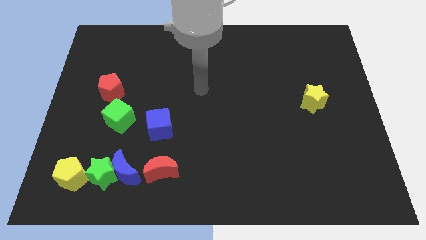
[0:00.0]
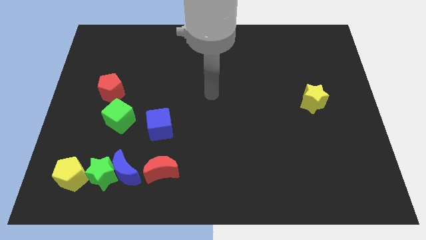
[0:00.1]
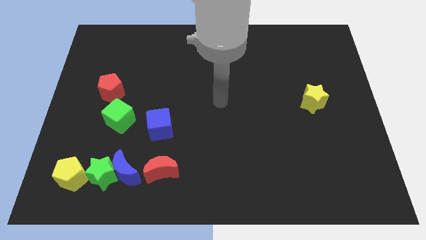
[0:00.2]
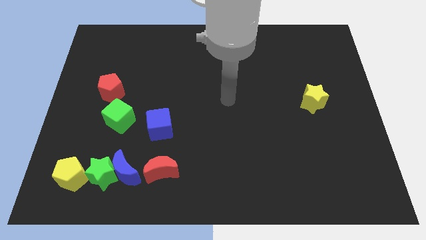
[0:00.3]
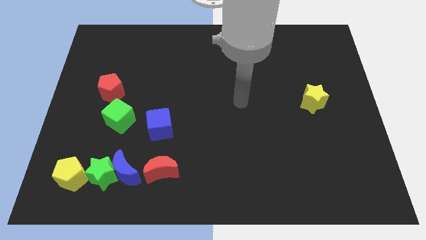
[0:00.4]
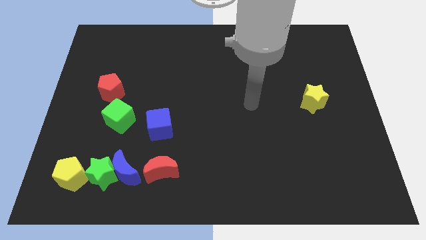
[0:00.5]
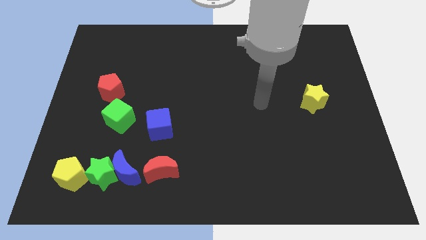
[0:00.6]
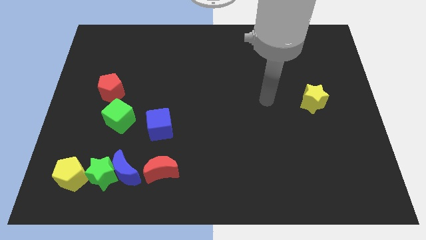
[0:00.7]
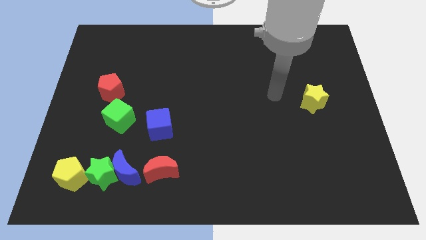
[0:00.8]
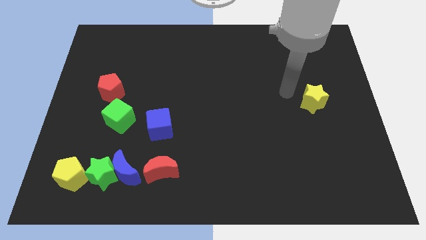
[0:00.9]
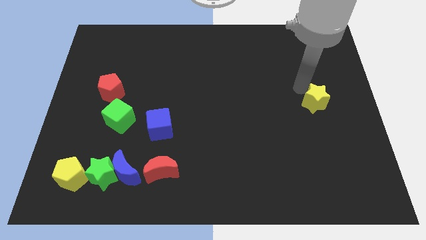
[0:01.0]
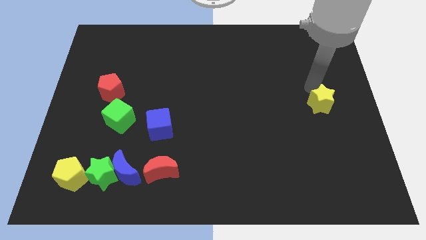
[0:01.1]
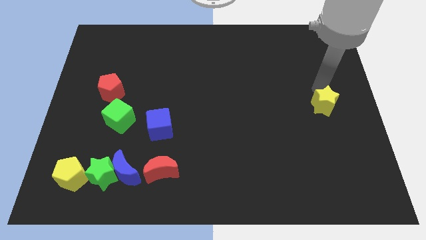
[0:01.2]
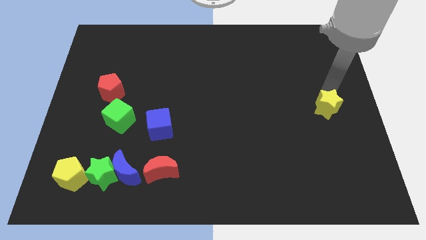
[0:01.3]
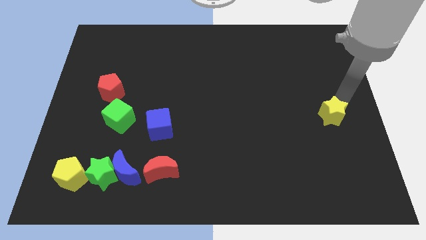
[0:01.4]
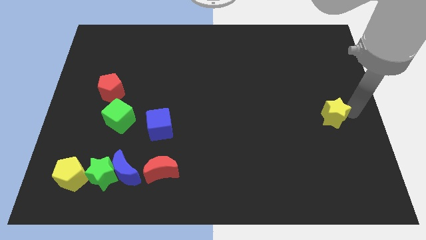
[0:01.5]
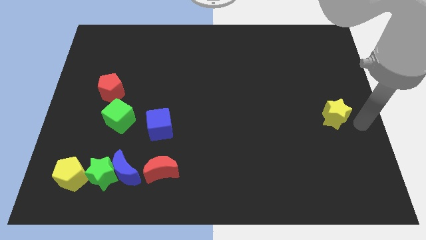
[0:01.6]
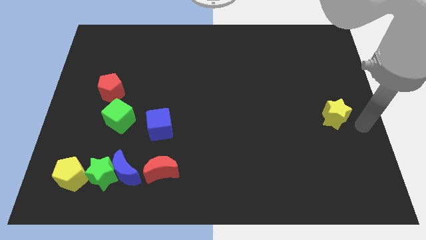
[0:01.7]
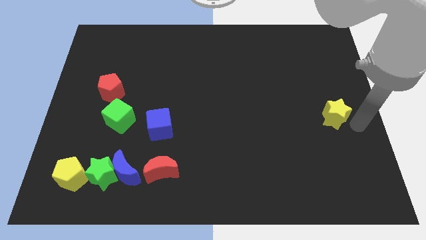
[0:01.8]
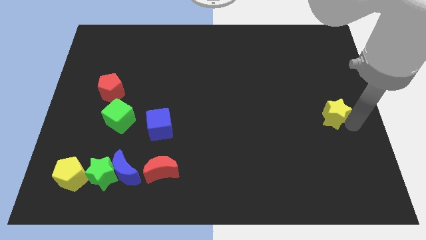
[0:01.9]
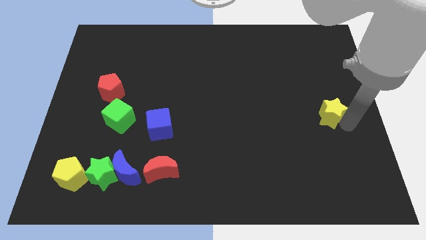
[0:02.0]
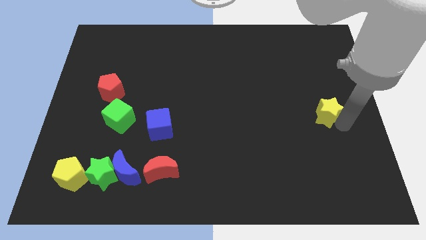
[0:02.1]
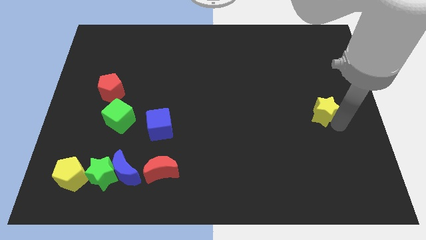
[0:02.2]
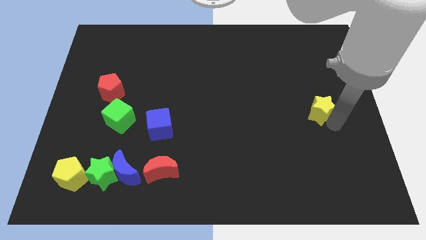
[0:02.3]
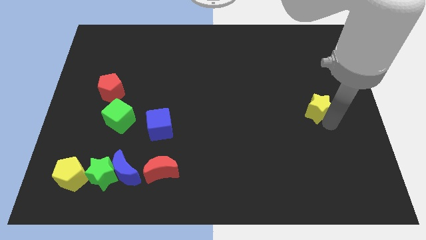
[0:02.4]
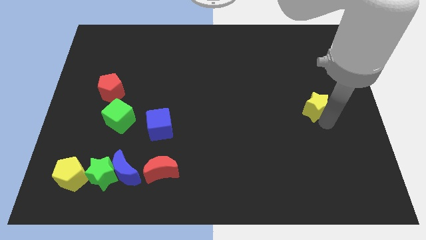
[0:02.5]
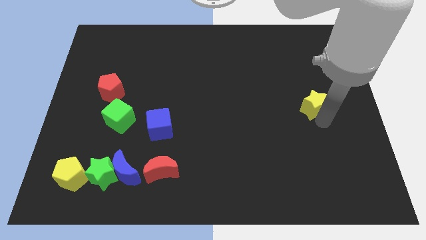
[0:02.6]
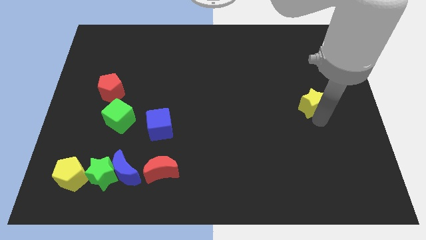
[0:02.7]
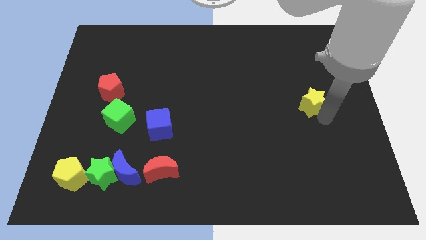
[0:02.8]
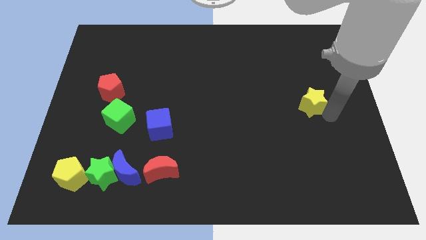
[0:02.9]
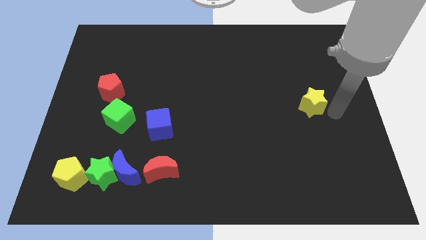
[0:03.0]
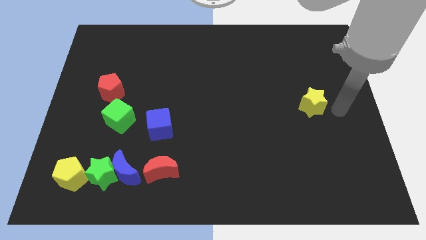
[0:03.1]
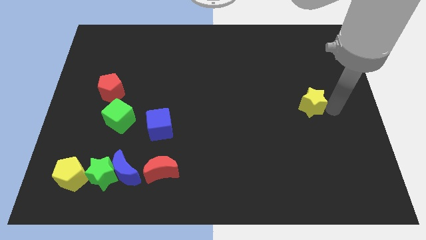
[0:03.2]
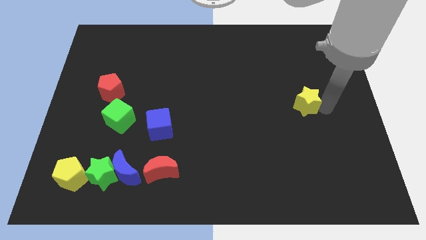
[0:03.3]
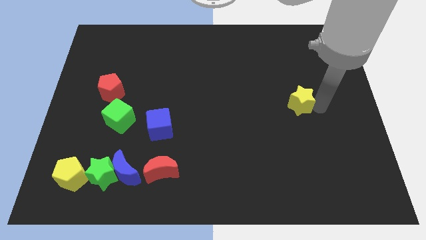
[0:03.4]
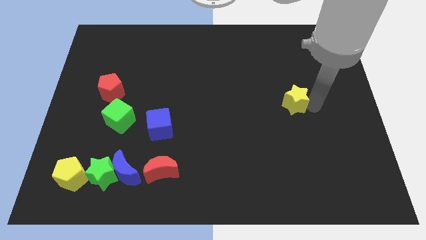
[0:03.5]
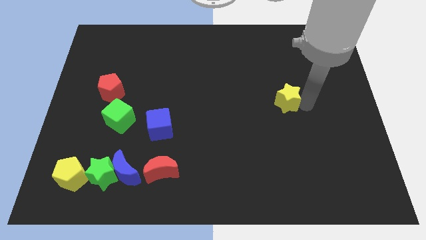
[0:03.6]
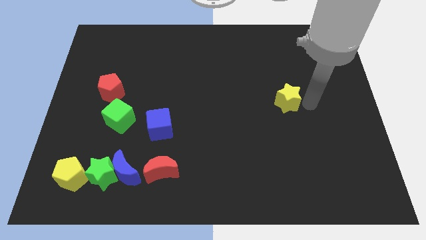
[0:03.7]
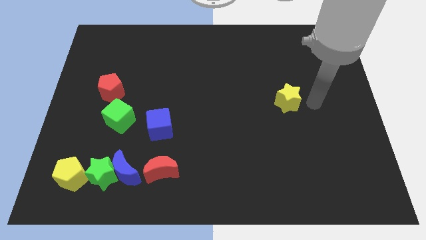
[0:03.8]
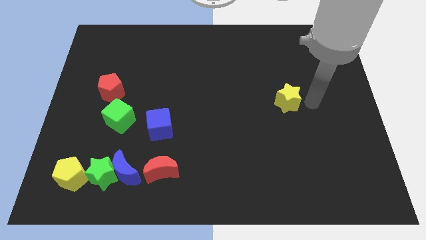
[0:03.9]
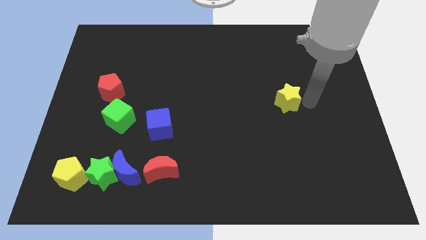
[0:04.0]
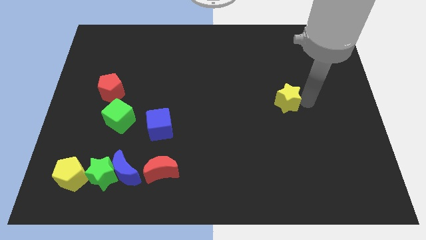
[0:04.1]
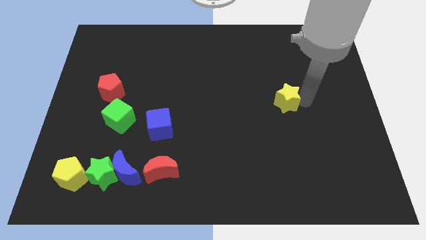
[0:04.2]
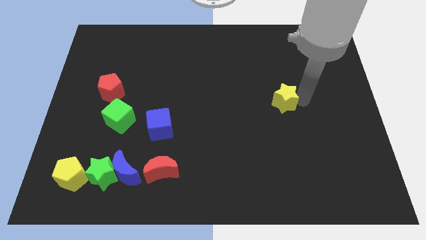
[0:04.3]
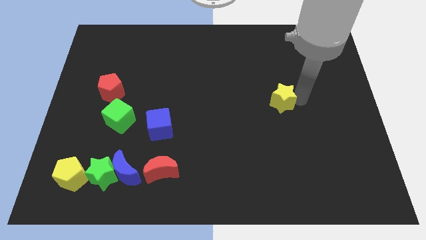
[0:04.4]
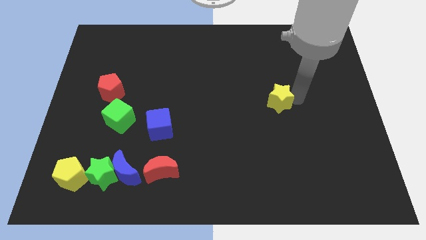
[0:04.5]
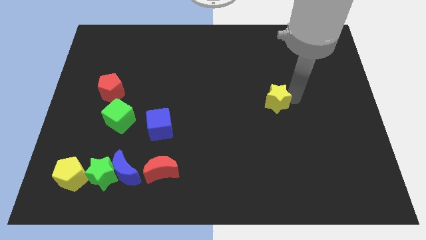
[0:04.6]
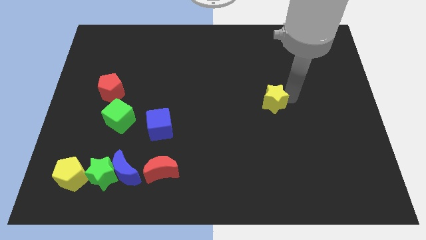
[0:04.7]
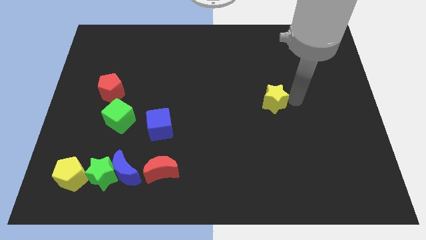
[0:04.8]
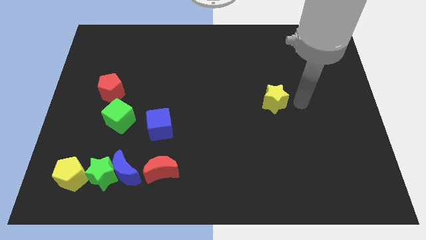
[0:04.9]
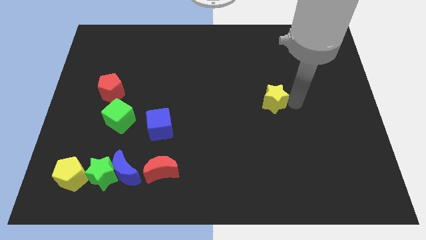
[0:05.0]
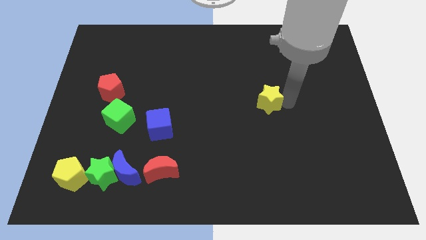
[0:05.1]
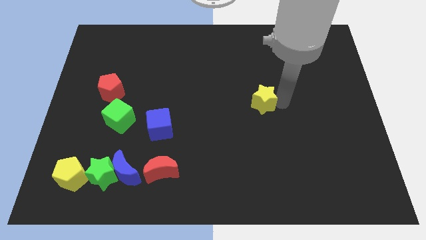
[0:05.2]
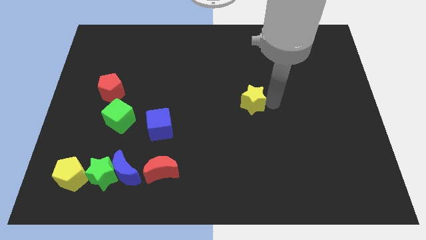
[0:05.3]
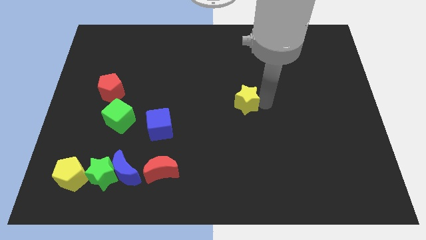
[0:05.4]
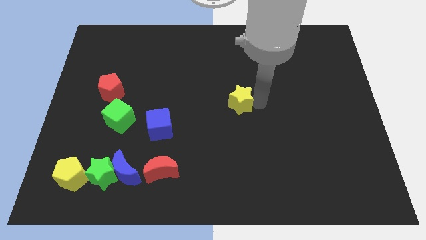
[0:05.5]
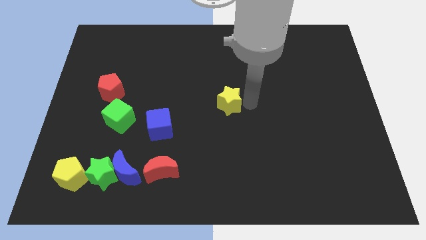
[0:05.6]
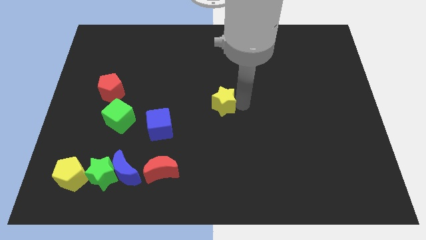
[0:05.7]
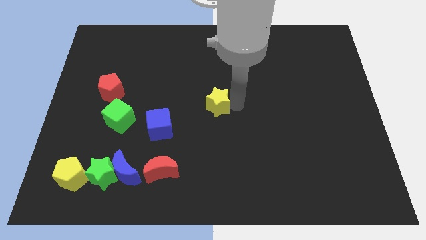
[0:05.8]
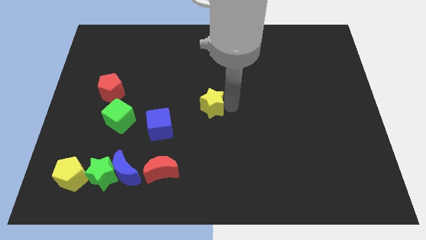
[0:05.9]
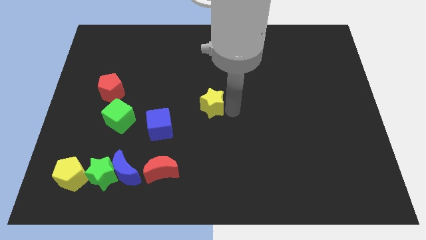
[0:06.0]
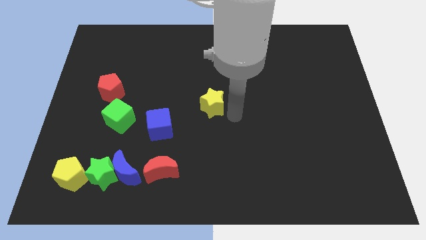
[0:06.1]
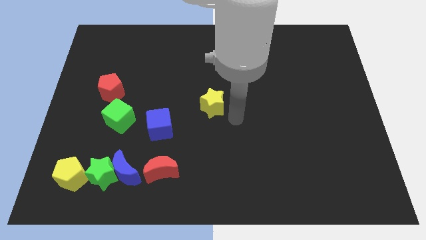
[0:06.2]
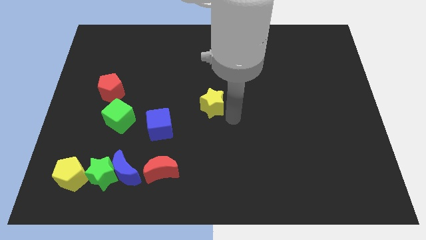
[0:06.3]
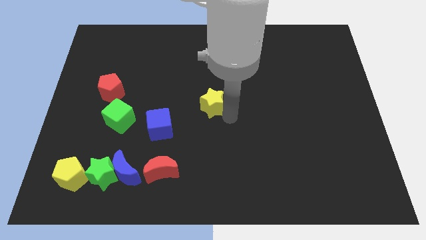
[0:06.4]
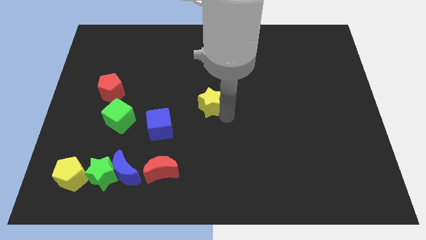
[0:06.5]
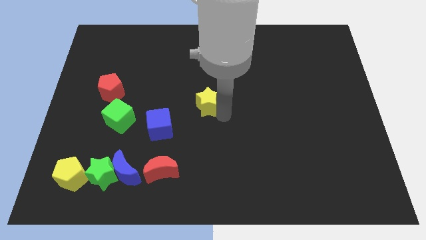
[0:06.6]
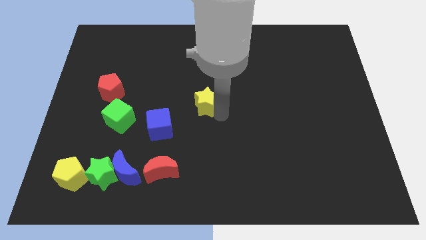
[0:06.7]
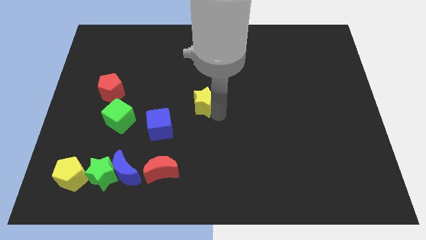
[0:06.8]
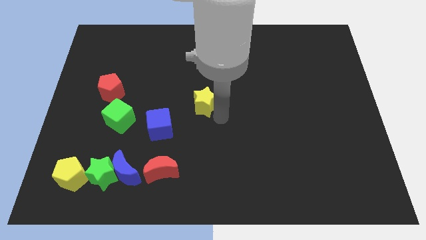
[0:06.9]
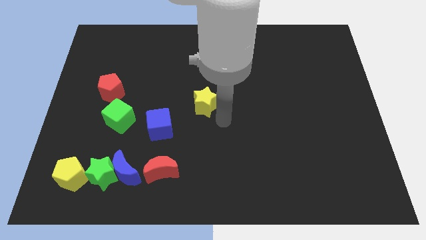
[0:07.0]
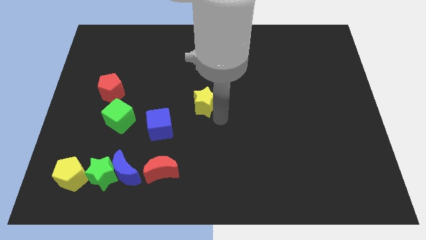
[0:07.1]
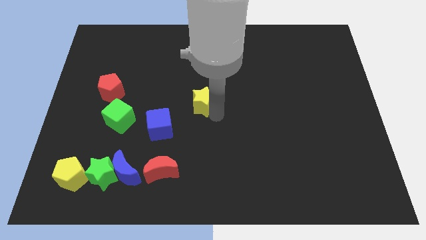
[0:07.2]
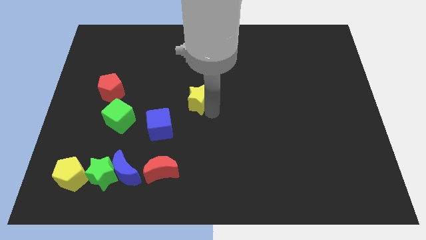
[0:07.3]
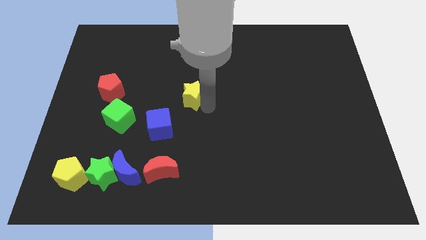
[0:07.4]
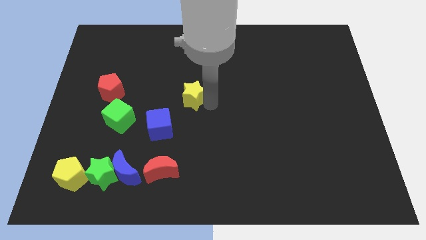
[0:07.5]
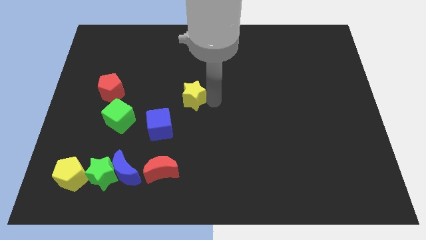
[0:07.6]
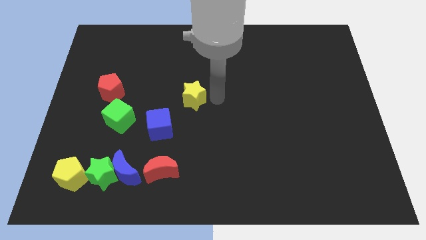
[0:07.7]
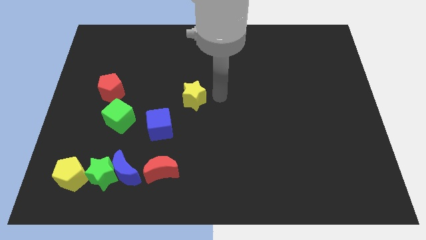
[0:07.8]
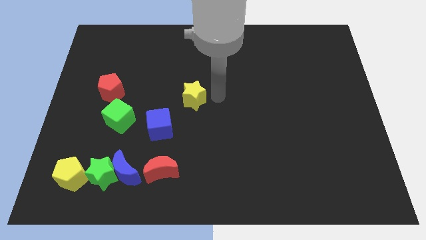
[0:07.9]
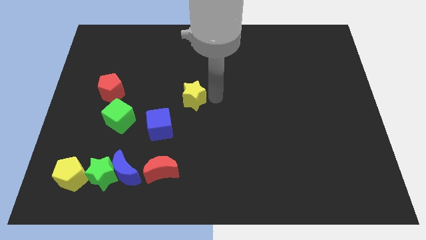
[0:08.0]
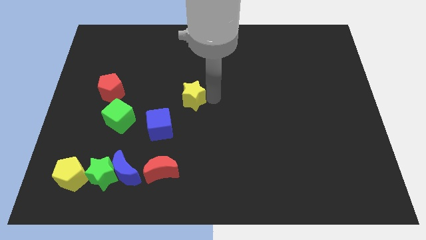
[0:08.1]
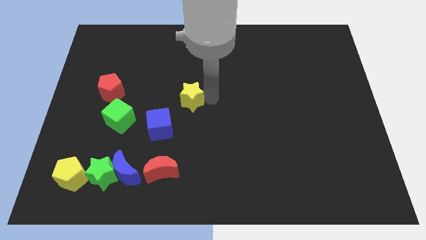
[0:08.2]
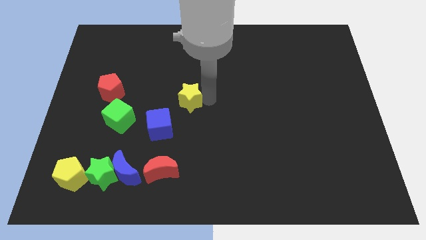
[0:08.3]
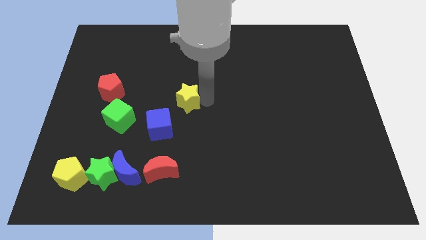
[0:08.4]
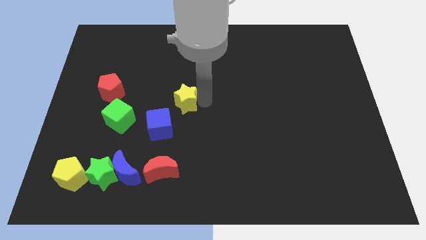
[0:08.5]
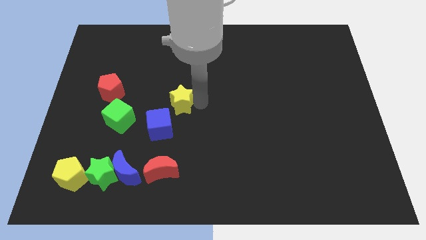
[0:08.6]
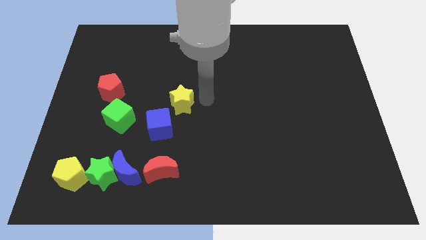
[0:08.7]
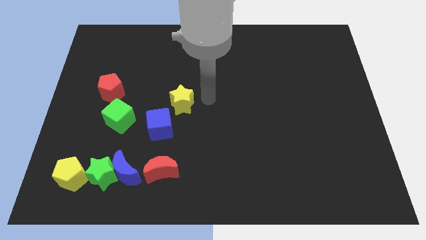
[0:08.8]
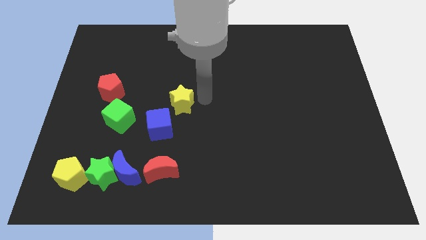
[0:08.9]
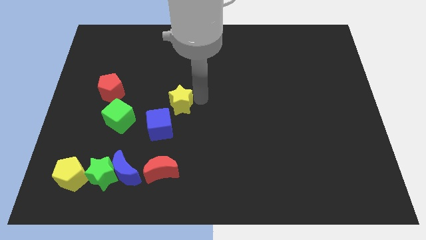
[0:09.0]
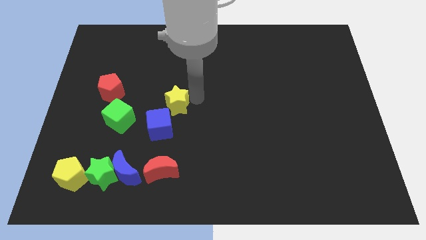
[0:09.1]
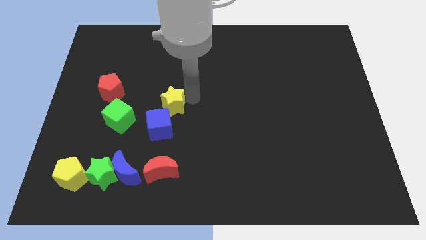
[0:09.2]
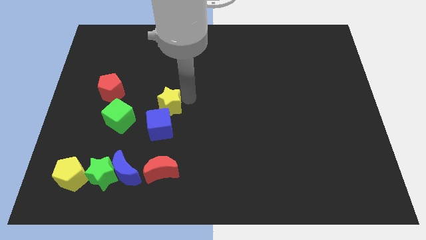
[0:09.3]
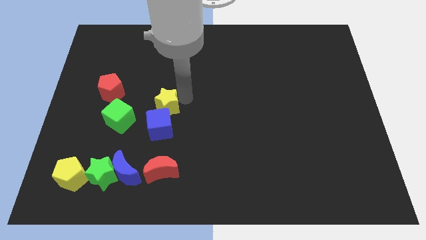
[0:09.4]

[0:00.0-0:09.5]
move the yellow star to the top left of the blue cube
